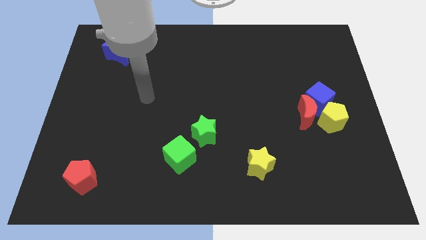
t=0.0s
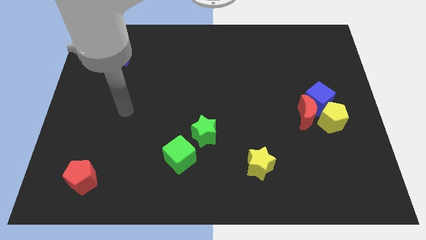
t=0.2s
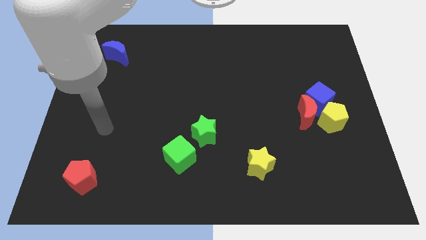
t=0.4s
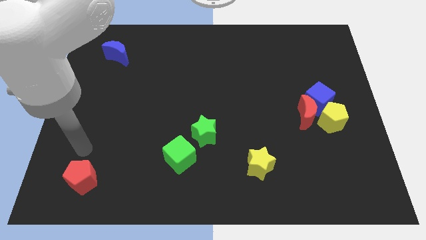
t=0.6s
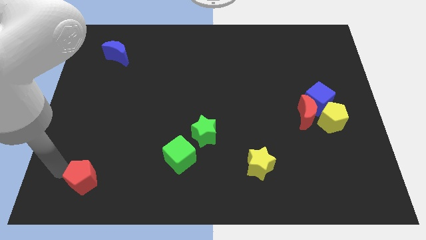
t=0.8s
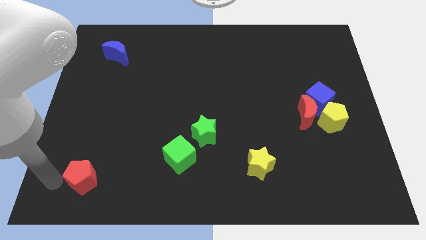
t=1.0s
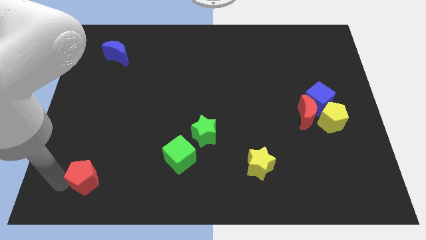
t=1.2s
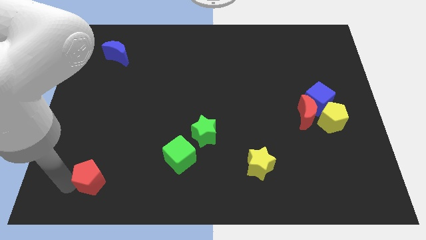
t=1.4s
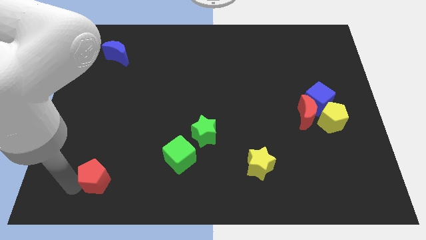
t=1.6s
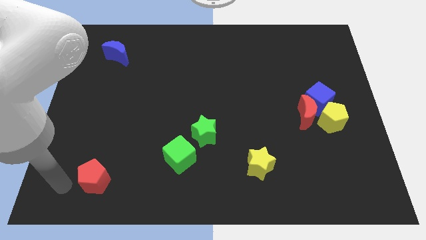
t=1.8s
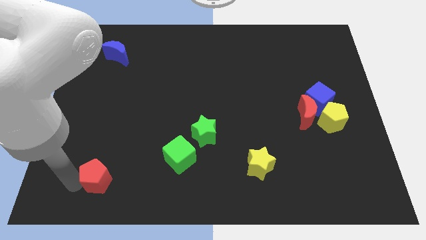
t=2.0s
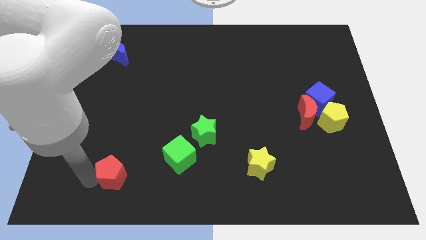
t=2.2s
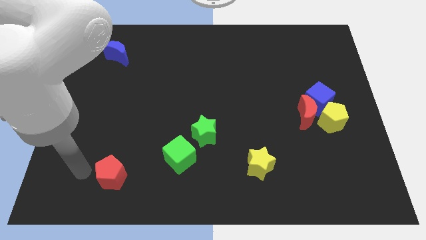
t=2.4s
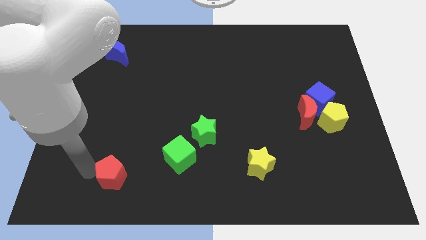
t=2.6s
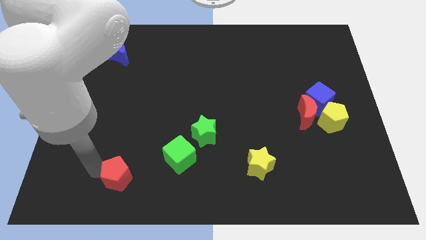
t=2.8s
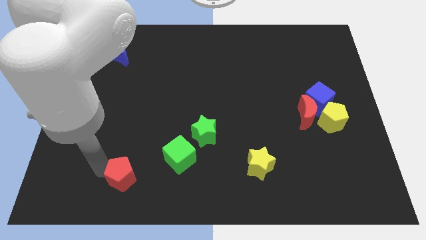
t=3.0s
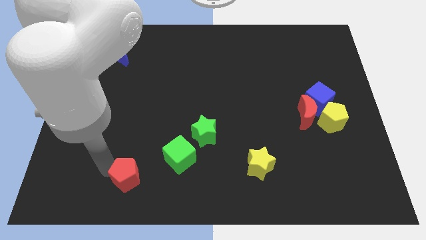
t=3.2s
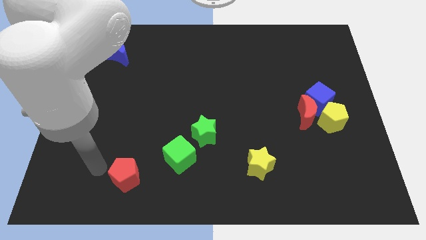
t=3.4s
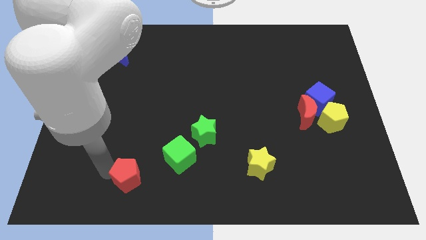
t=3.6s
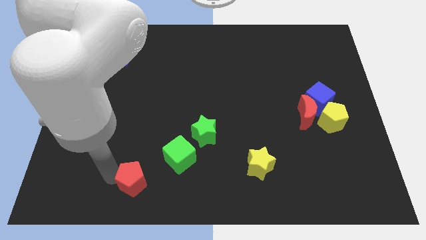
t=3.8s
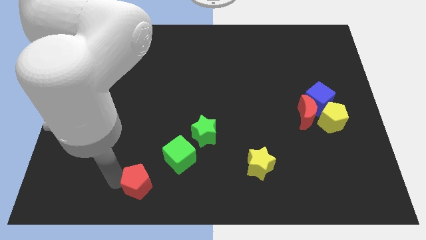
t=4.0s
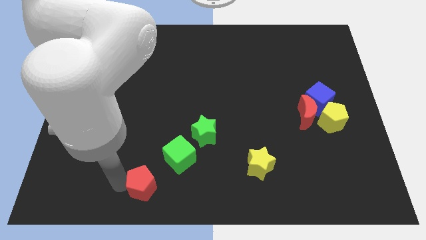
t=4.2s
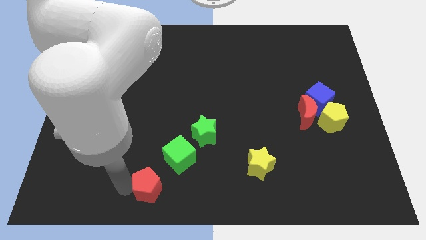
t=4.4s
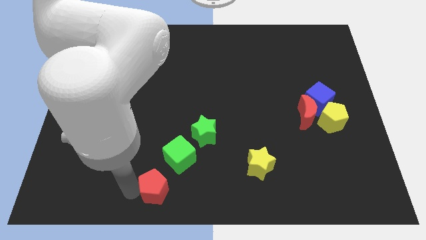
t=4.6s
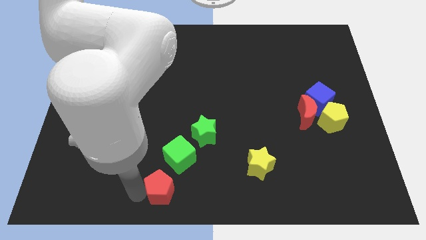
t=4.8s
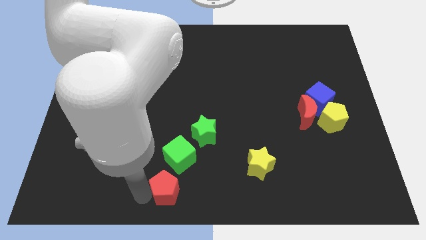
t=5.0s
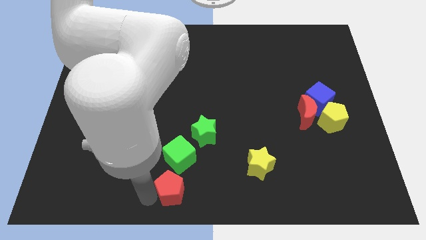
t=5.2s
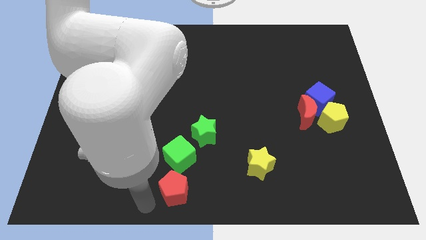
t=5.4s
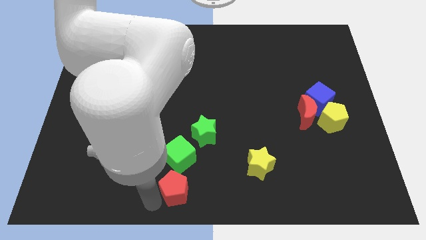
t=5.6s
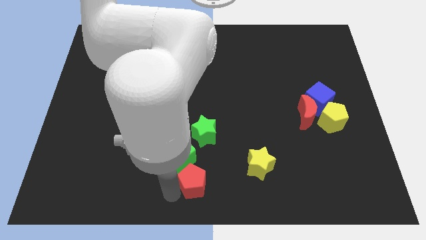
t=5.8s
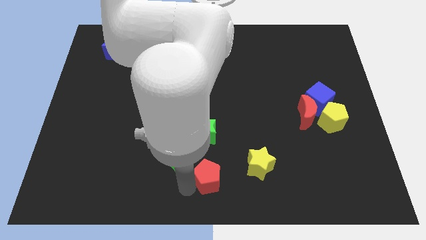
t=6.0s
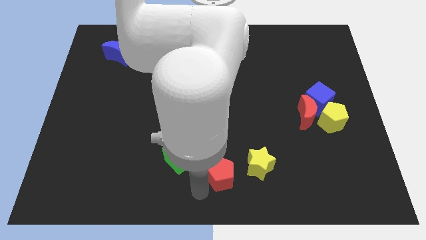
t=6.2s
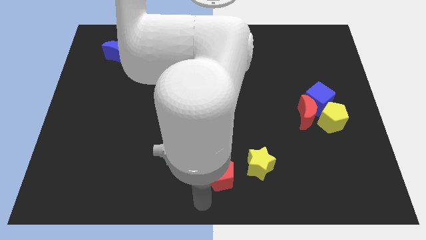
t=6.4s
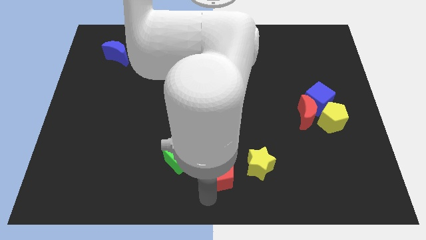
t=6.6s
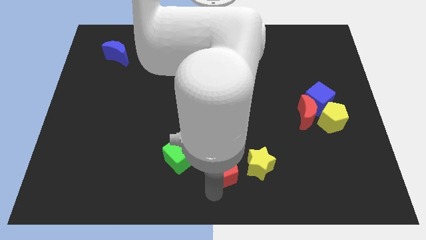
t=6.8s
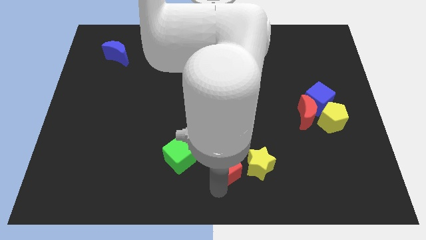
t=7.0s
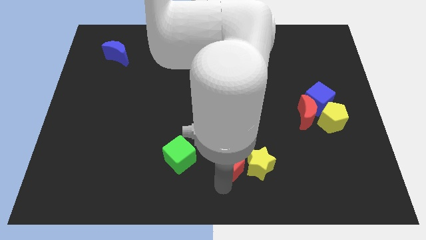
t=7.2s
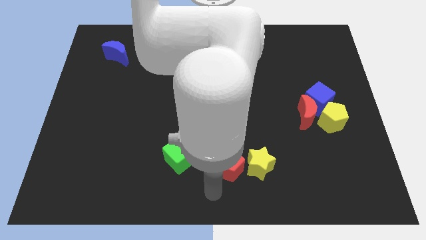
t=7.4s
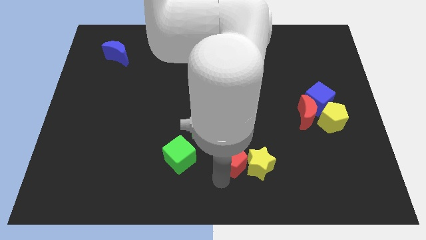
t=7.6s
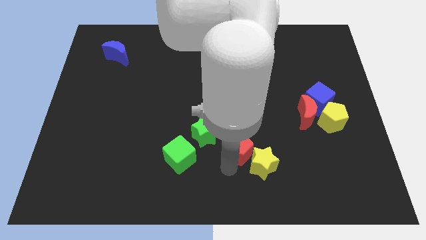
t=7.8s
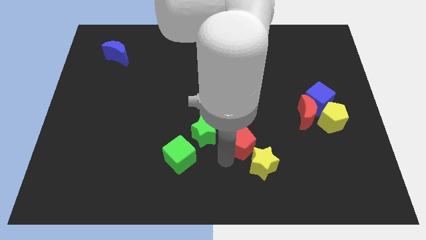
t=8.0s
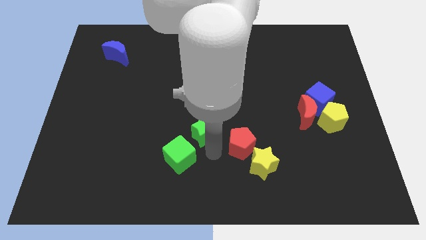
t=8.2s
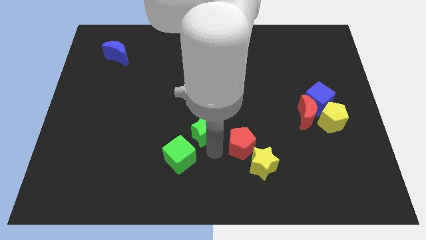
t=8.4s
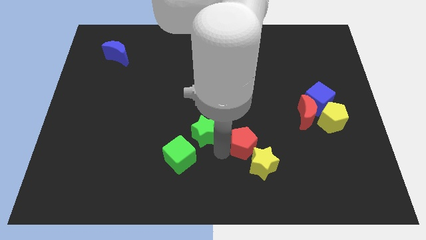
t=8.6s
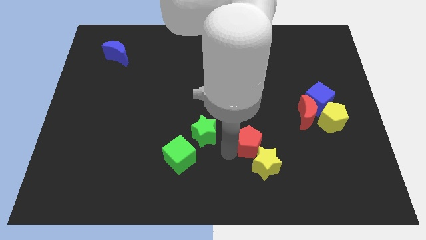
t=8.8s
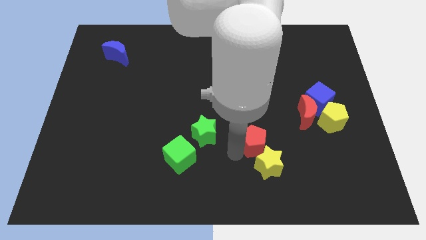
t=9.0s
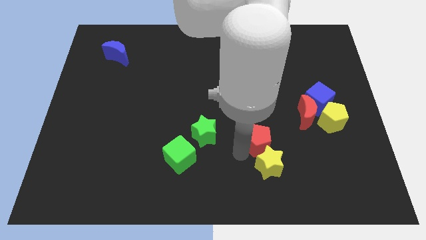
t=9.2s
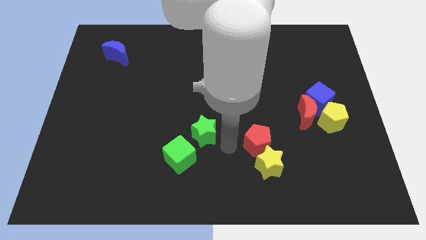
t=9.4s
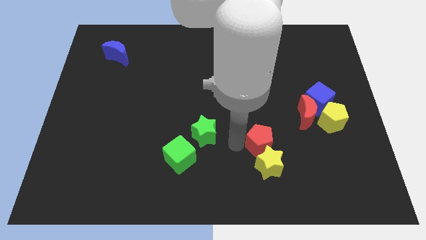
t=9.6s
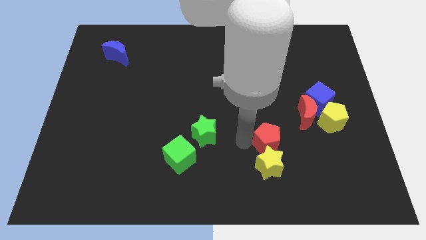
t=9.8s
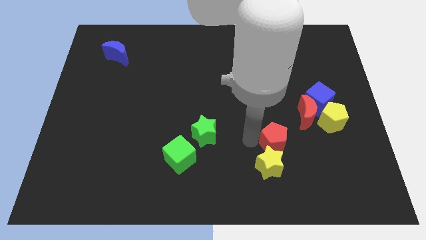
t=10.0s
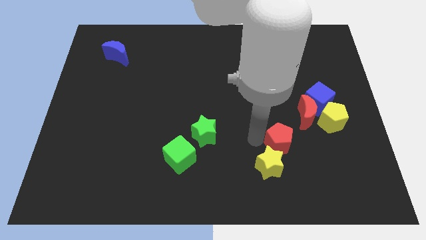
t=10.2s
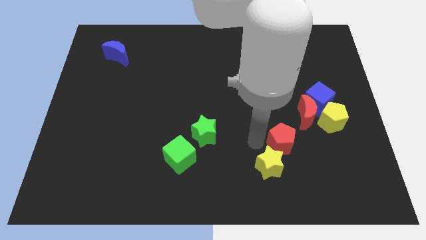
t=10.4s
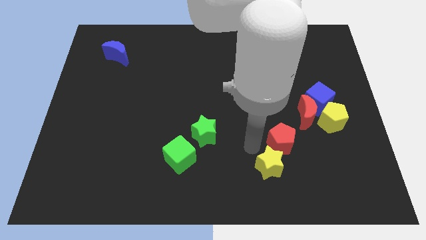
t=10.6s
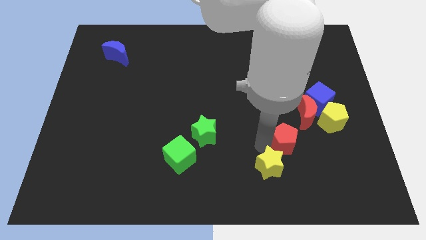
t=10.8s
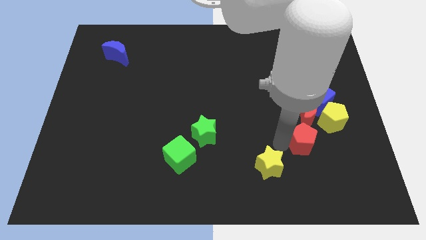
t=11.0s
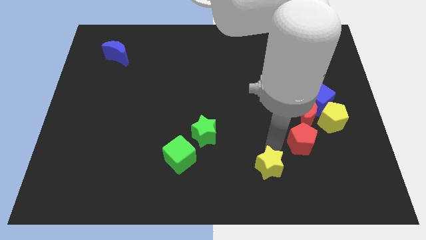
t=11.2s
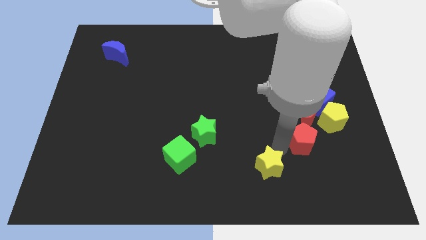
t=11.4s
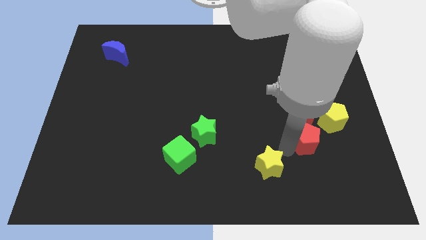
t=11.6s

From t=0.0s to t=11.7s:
move the red pentagon to the bottom side of the blue cube

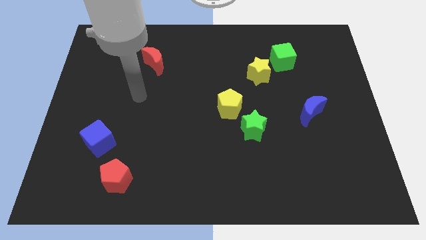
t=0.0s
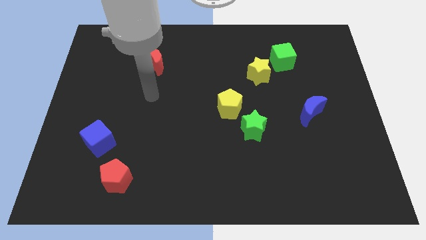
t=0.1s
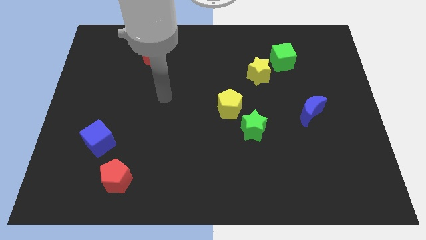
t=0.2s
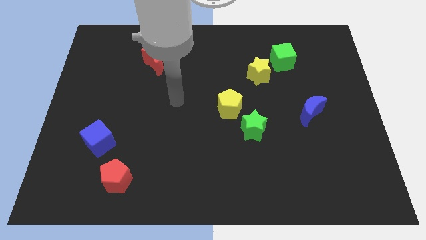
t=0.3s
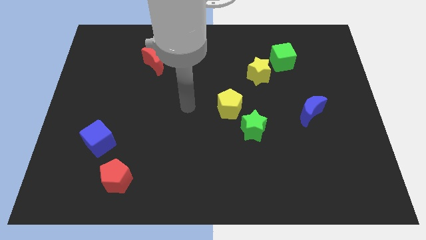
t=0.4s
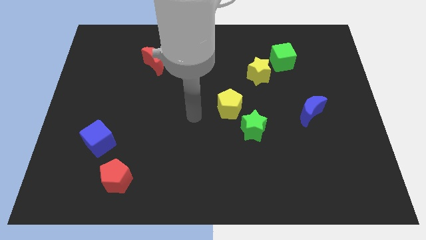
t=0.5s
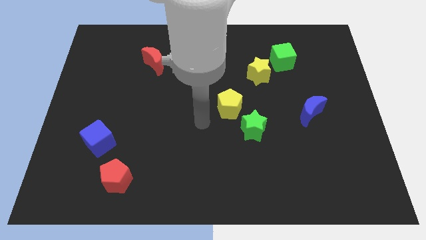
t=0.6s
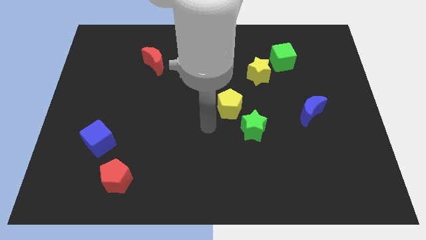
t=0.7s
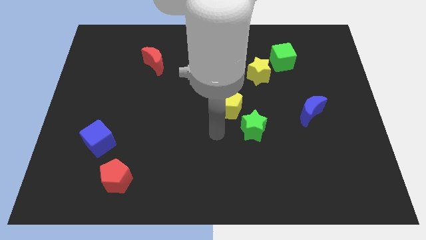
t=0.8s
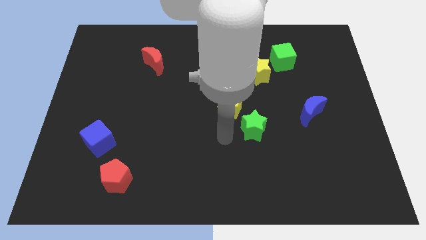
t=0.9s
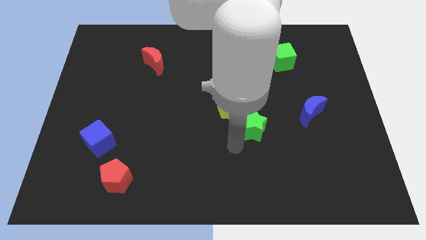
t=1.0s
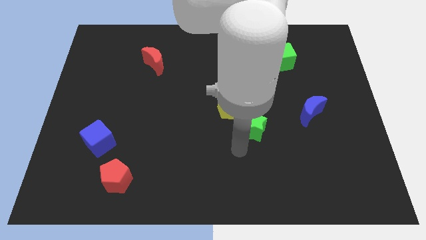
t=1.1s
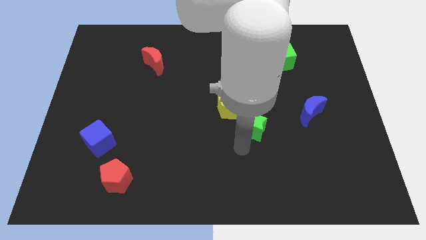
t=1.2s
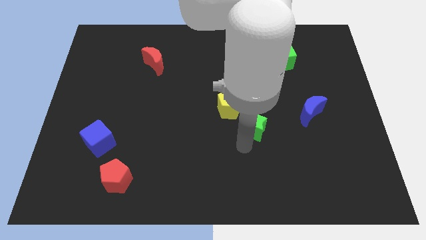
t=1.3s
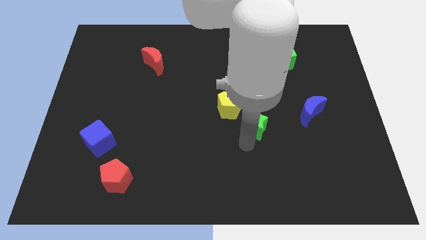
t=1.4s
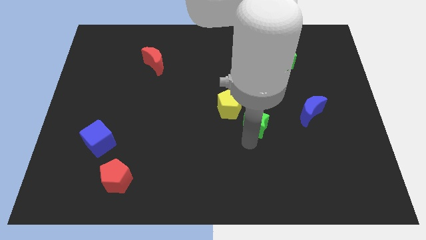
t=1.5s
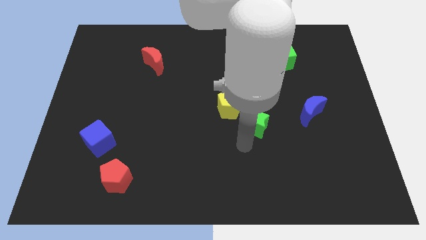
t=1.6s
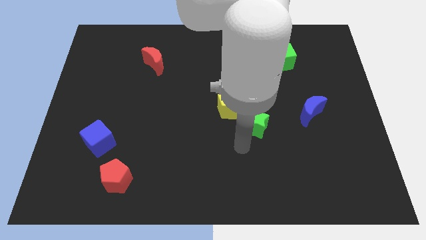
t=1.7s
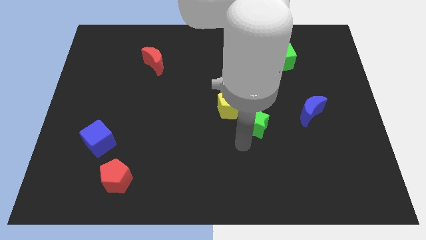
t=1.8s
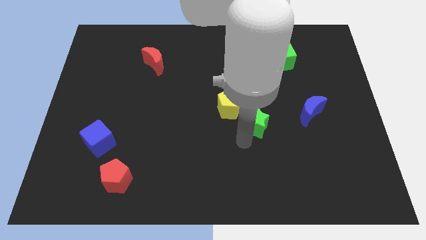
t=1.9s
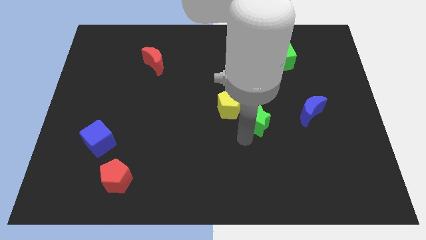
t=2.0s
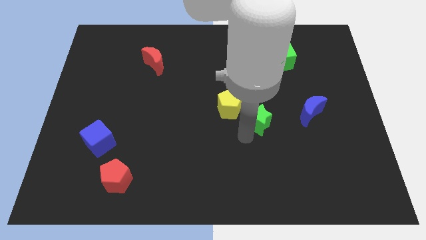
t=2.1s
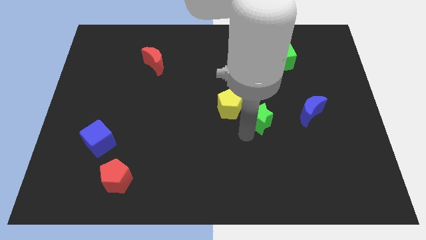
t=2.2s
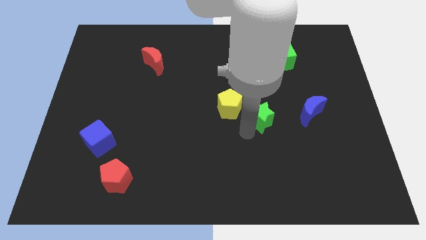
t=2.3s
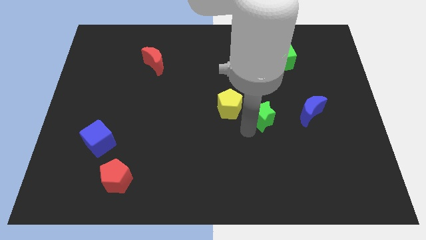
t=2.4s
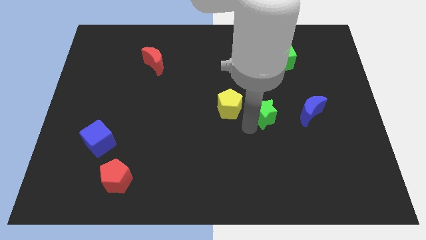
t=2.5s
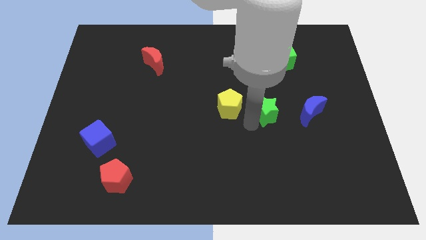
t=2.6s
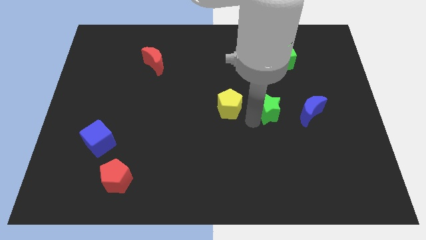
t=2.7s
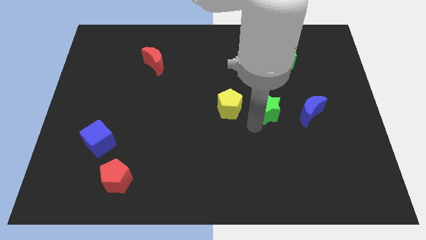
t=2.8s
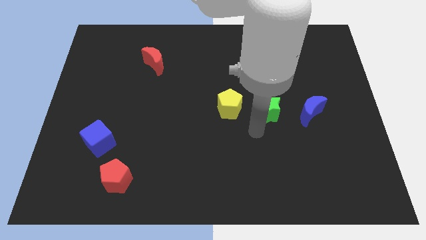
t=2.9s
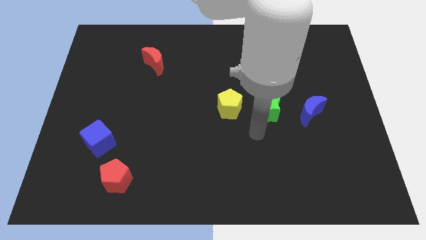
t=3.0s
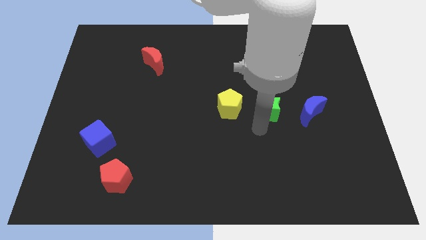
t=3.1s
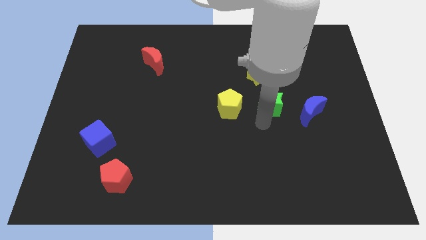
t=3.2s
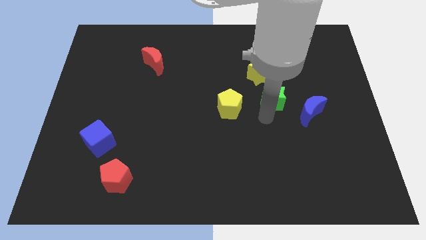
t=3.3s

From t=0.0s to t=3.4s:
move the green star to the bottom right of the yellow star
